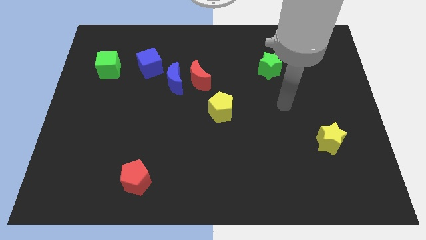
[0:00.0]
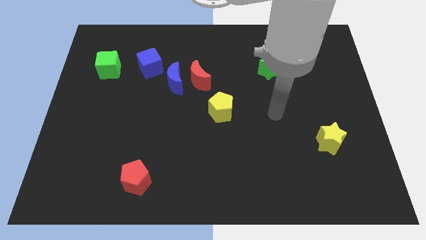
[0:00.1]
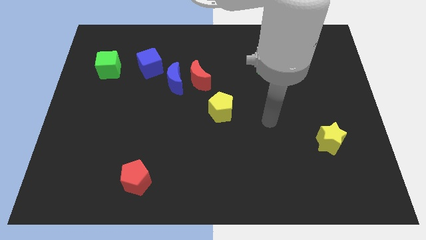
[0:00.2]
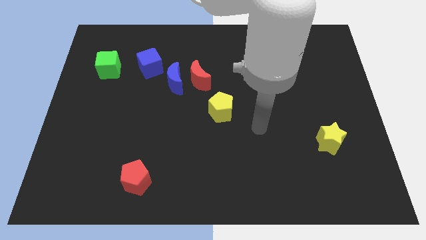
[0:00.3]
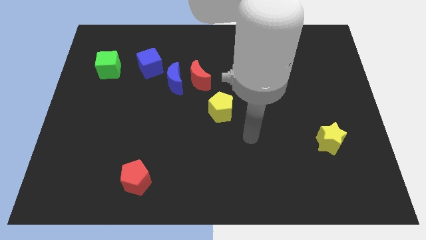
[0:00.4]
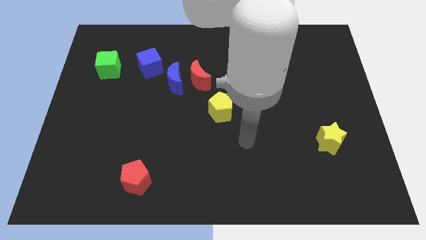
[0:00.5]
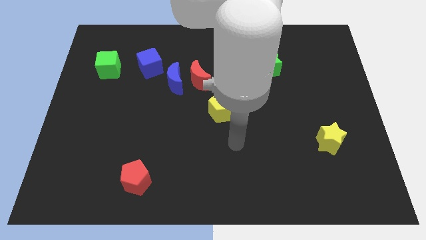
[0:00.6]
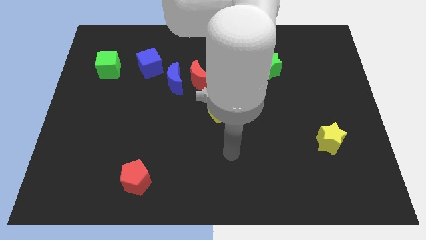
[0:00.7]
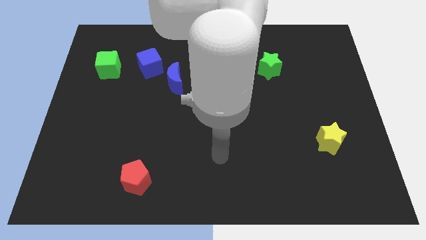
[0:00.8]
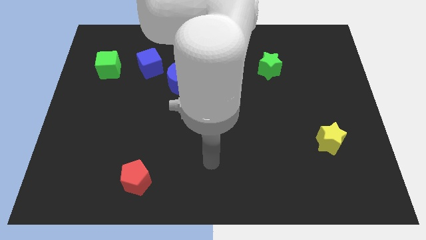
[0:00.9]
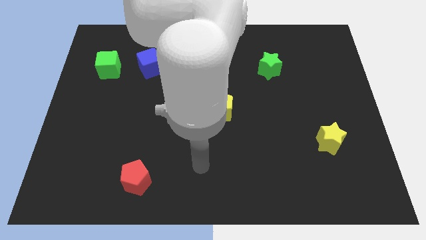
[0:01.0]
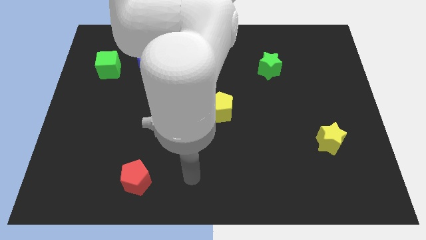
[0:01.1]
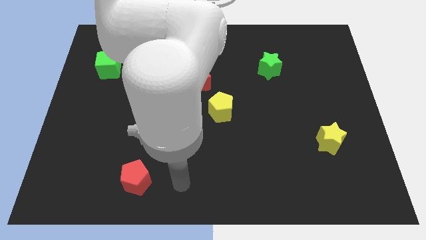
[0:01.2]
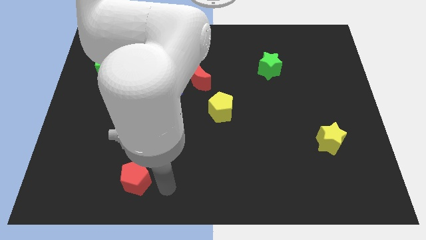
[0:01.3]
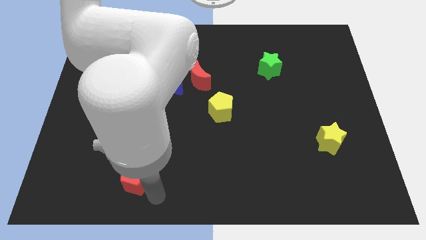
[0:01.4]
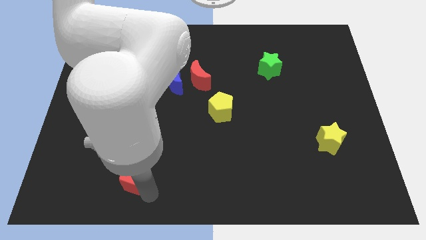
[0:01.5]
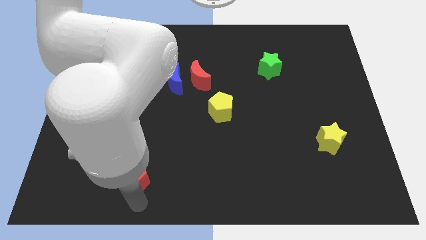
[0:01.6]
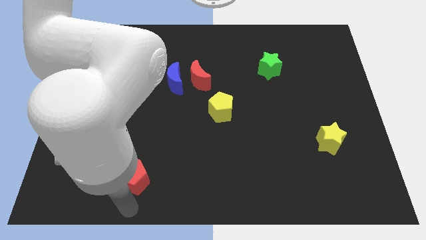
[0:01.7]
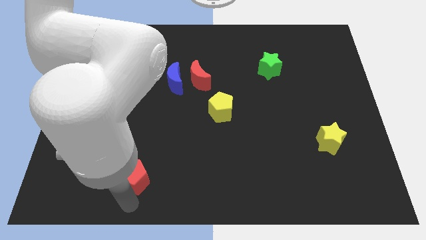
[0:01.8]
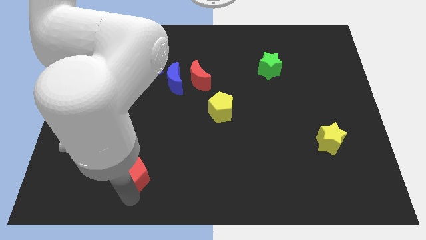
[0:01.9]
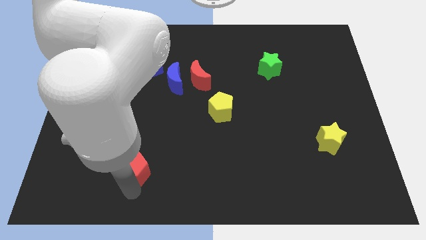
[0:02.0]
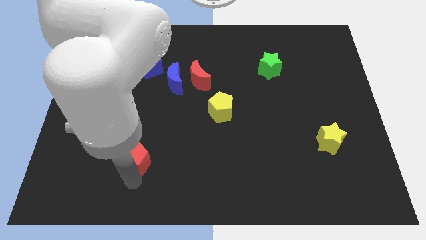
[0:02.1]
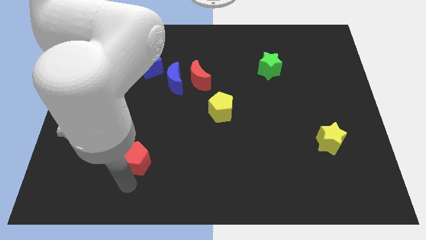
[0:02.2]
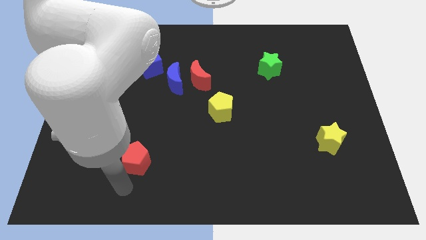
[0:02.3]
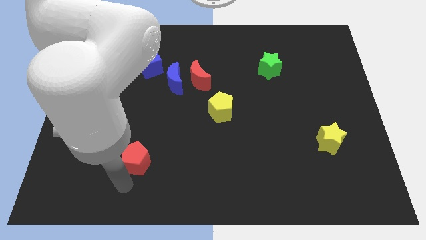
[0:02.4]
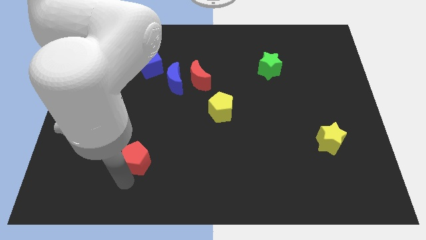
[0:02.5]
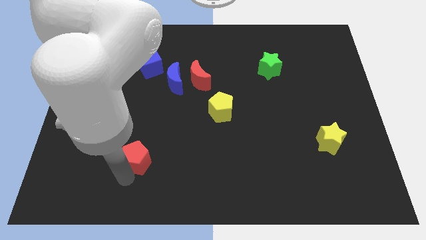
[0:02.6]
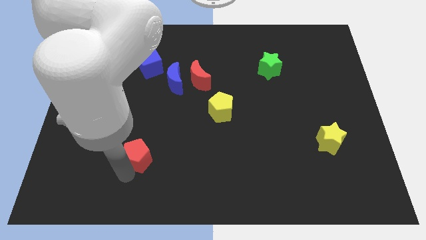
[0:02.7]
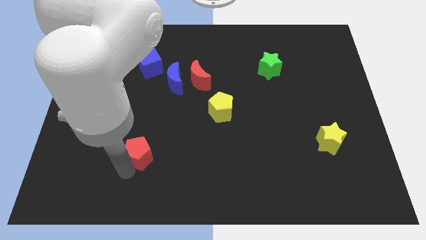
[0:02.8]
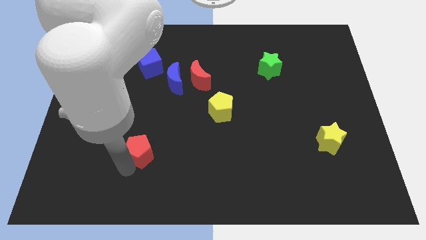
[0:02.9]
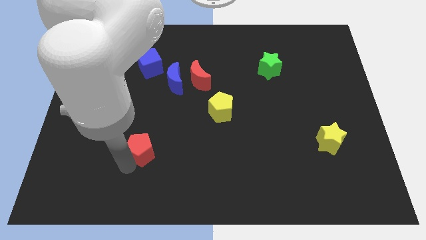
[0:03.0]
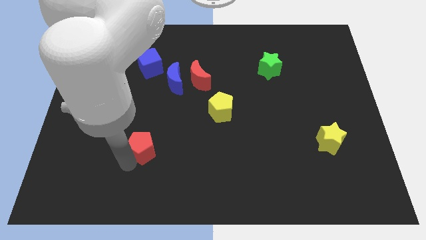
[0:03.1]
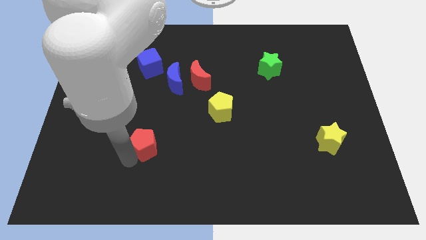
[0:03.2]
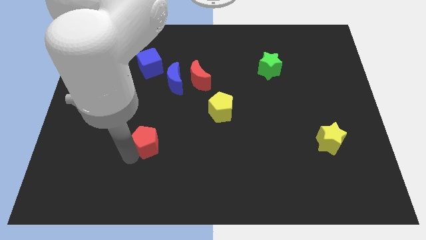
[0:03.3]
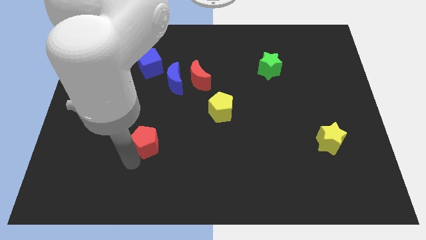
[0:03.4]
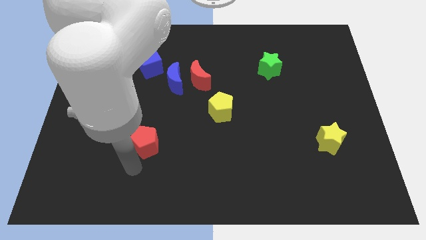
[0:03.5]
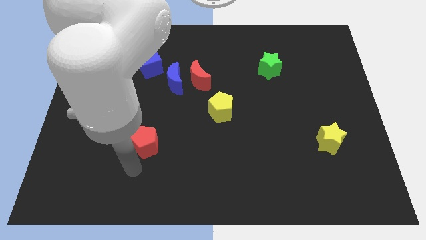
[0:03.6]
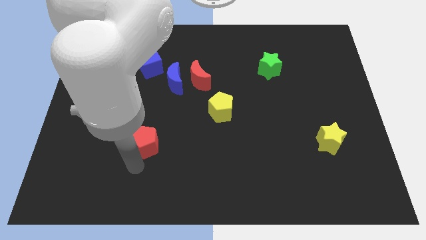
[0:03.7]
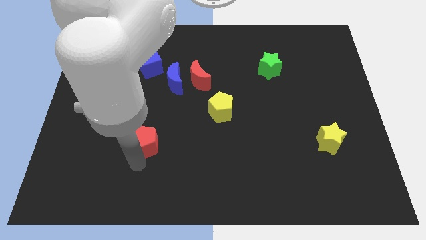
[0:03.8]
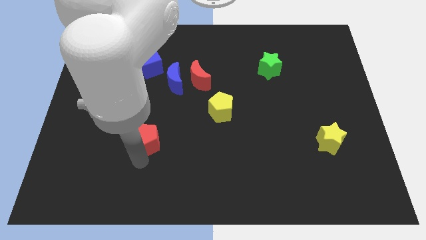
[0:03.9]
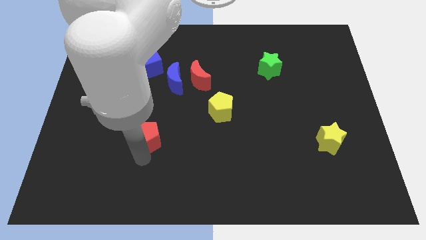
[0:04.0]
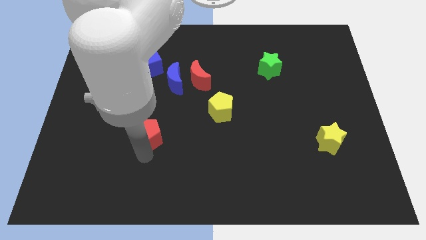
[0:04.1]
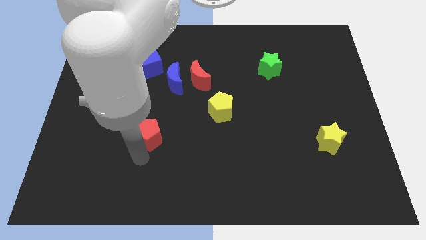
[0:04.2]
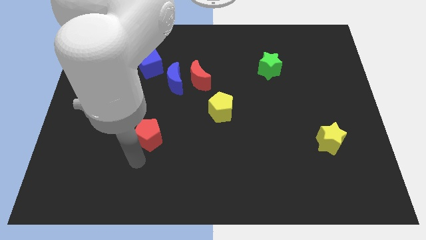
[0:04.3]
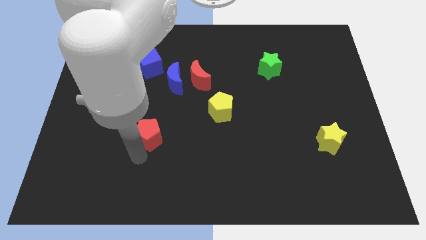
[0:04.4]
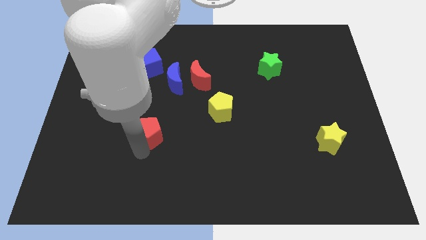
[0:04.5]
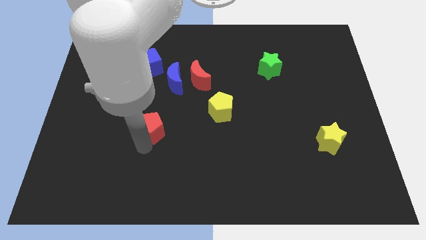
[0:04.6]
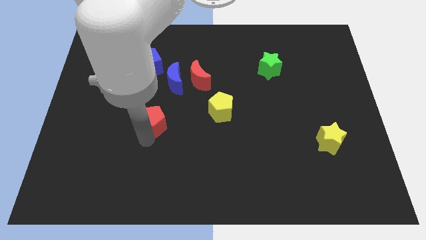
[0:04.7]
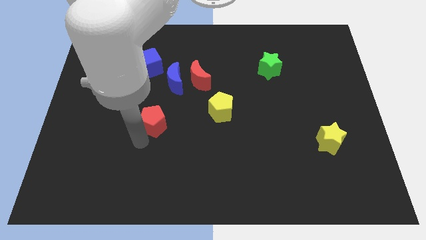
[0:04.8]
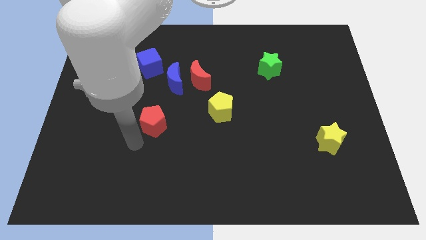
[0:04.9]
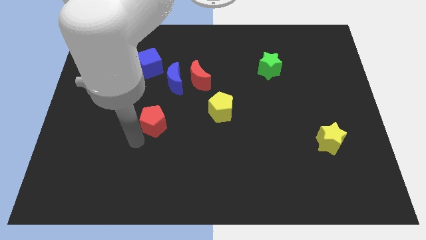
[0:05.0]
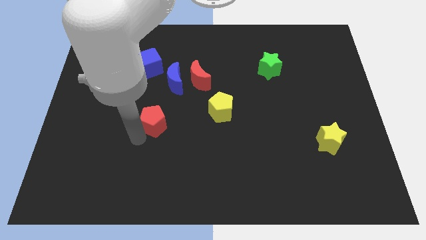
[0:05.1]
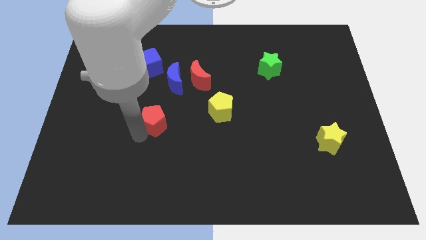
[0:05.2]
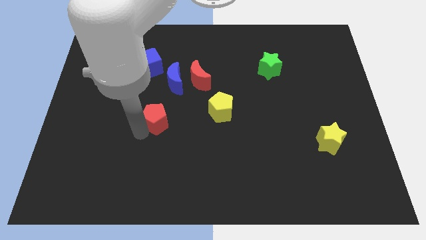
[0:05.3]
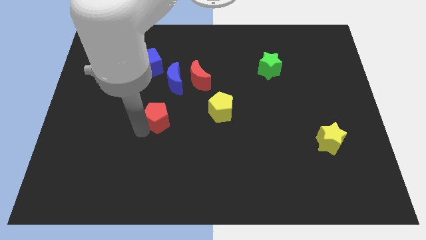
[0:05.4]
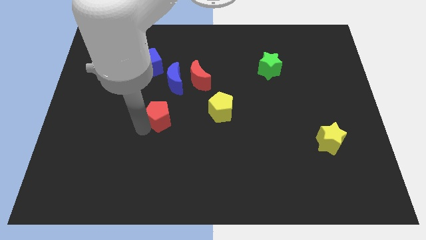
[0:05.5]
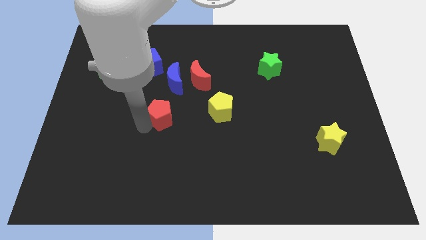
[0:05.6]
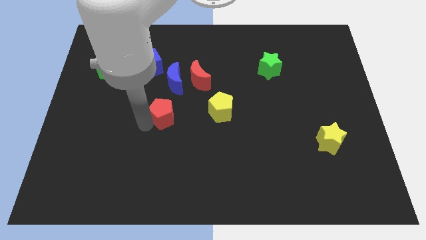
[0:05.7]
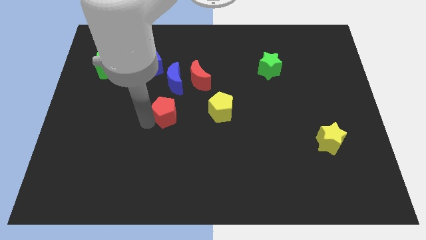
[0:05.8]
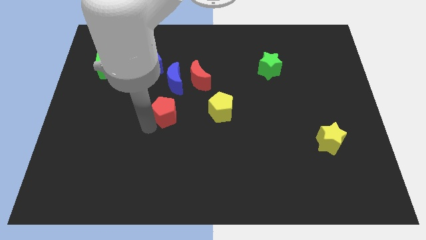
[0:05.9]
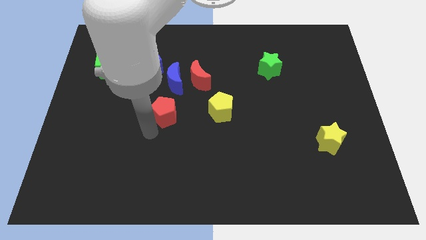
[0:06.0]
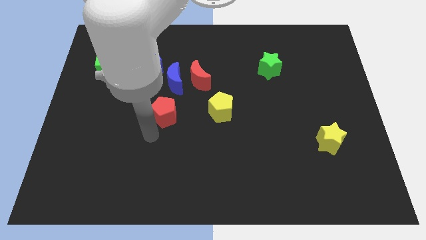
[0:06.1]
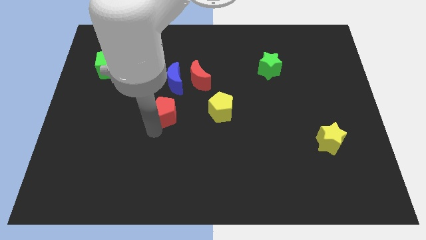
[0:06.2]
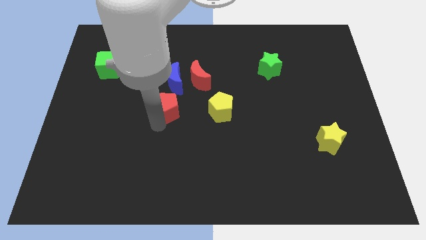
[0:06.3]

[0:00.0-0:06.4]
move the red pentagon to the bottom left of the red moon

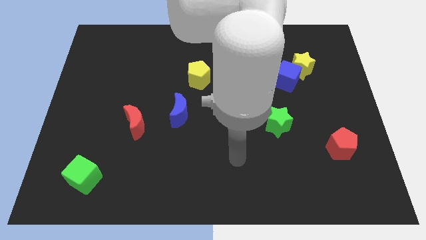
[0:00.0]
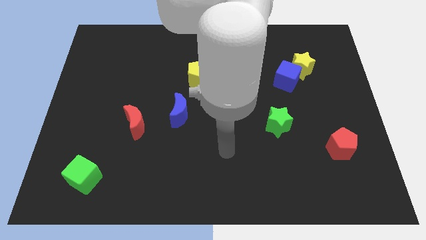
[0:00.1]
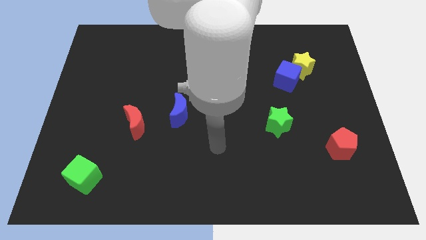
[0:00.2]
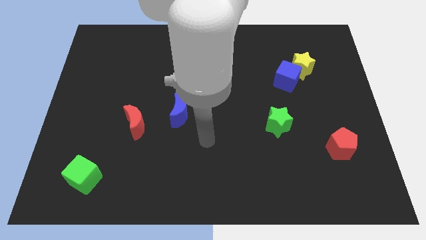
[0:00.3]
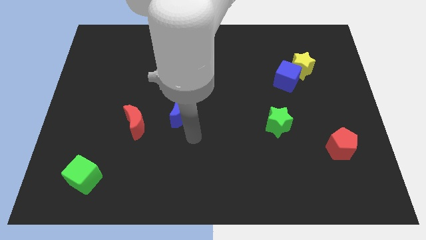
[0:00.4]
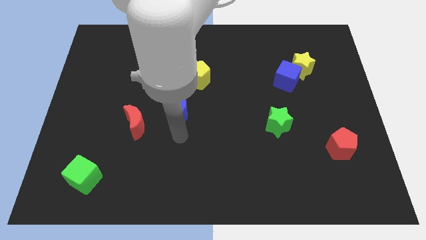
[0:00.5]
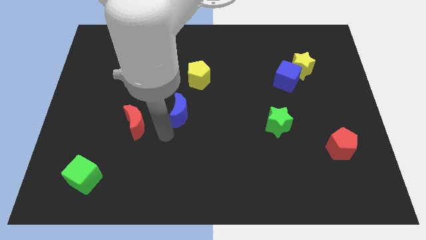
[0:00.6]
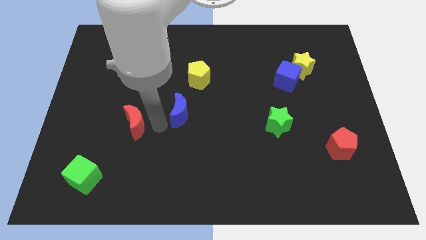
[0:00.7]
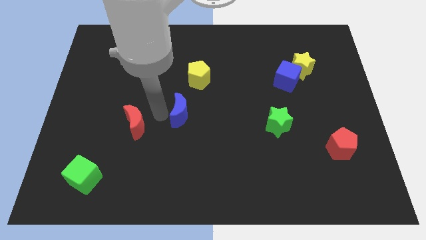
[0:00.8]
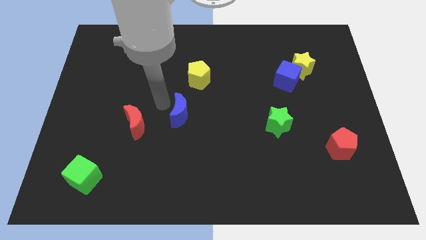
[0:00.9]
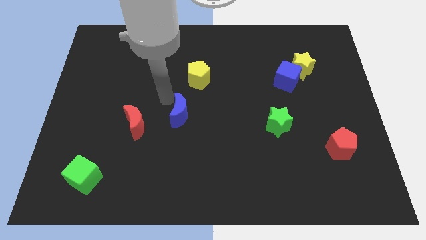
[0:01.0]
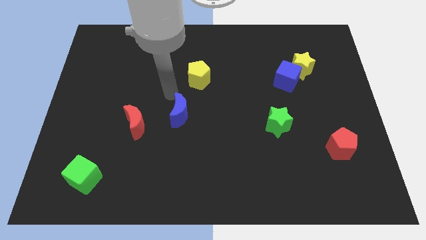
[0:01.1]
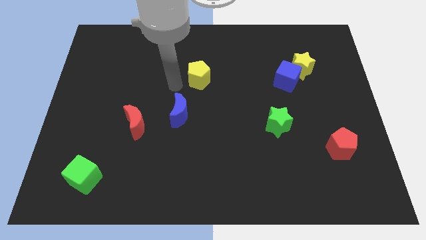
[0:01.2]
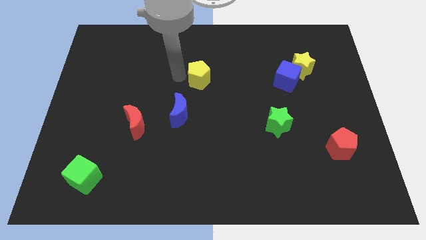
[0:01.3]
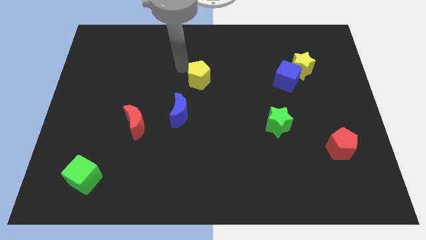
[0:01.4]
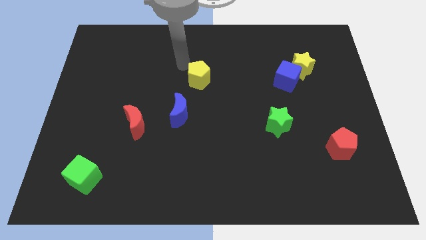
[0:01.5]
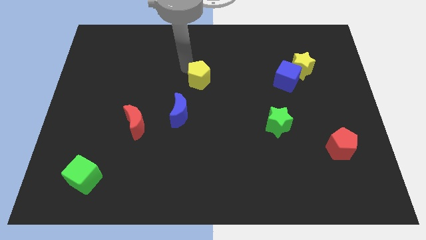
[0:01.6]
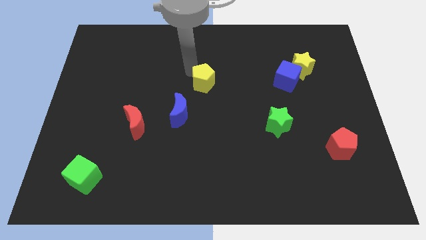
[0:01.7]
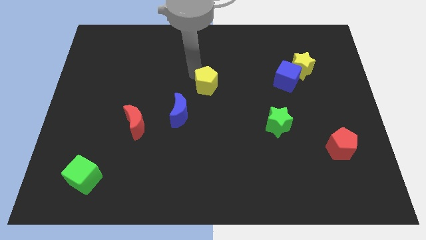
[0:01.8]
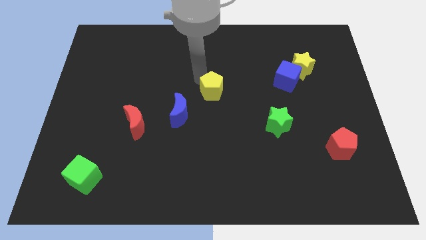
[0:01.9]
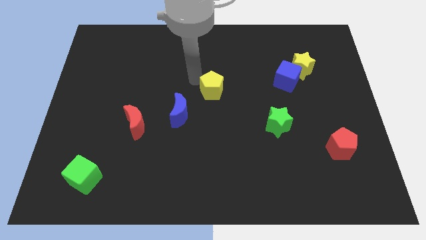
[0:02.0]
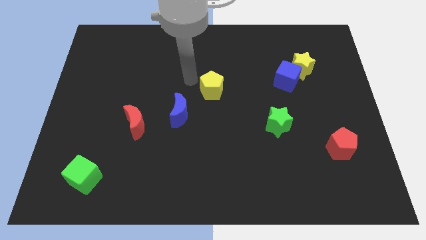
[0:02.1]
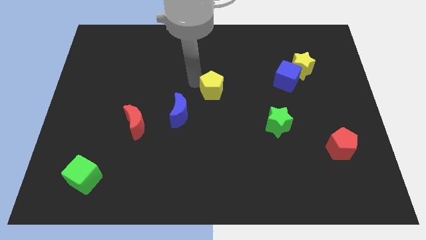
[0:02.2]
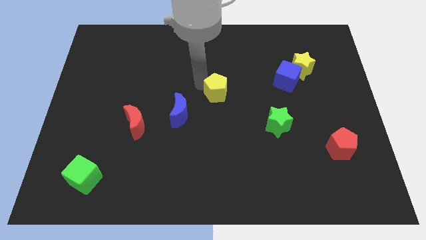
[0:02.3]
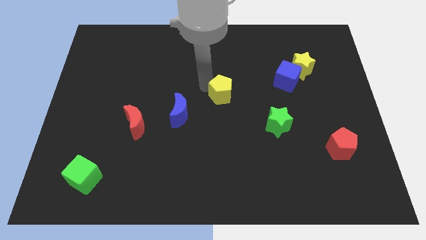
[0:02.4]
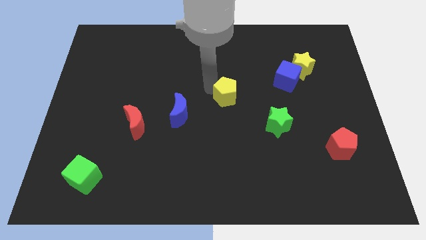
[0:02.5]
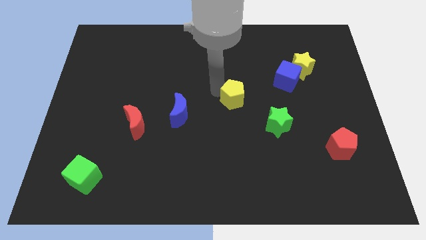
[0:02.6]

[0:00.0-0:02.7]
move the yellow pentagon diagonally up and to the left of the green star
